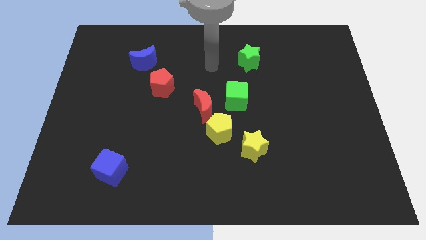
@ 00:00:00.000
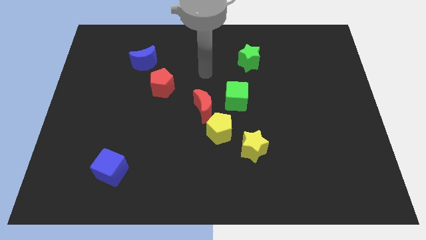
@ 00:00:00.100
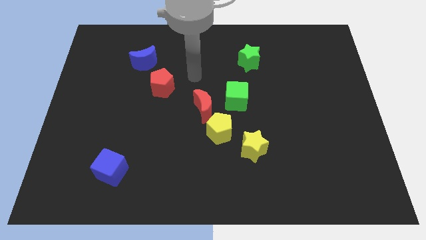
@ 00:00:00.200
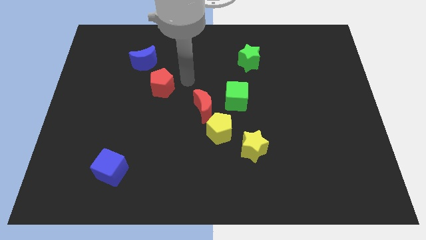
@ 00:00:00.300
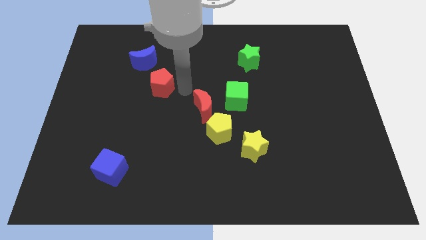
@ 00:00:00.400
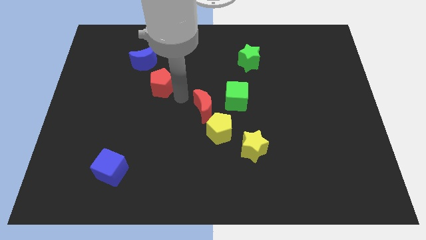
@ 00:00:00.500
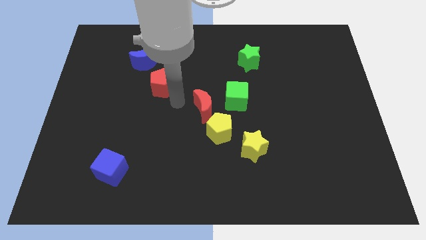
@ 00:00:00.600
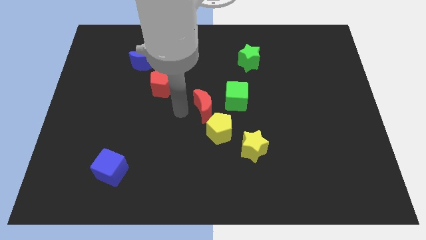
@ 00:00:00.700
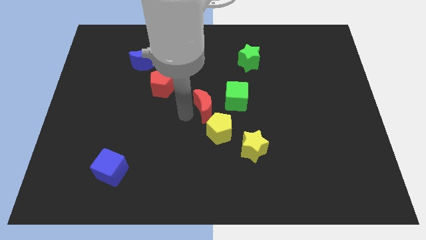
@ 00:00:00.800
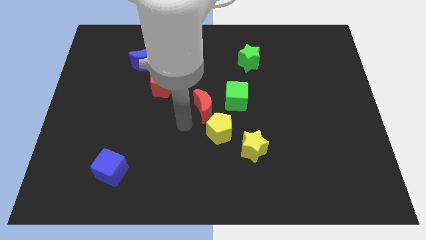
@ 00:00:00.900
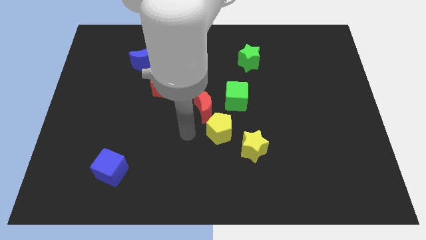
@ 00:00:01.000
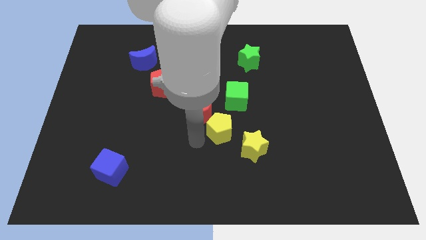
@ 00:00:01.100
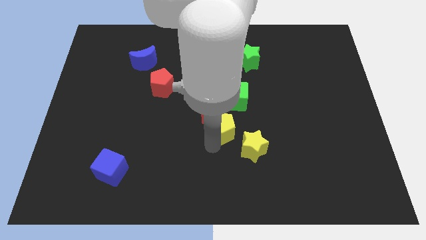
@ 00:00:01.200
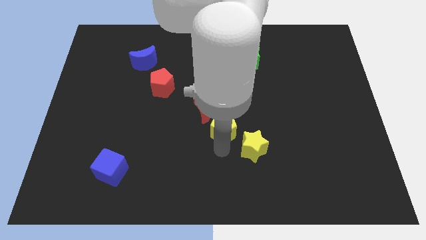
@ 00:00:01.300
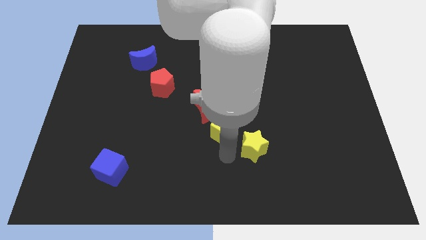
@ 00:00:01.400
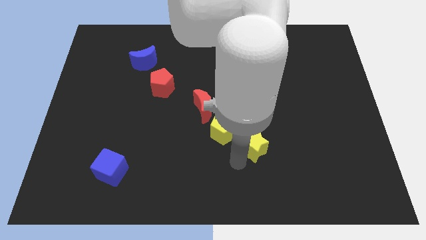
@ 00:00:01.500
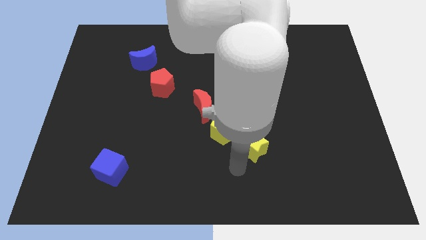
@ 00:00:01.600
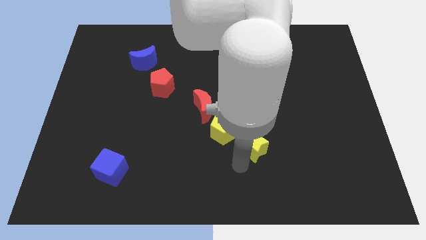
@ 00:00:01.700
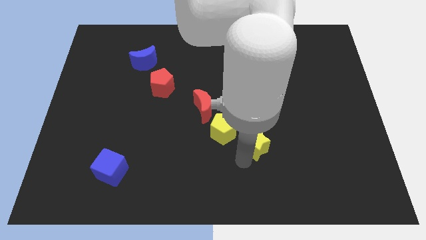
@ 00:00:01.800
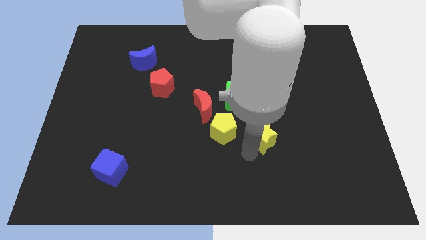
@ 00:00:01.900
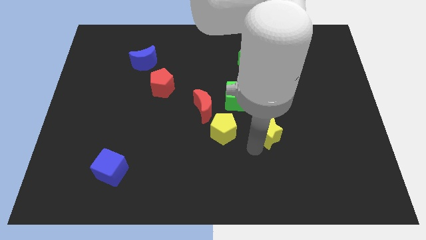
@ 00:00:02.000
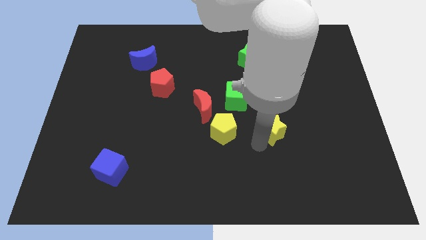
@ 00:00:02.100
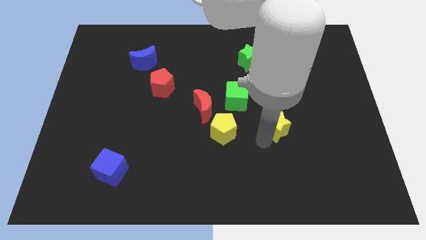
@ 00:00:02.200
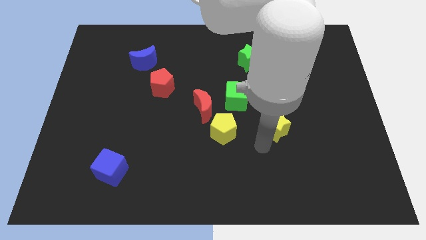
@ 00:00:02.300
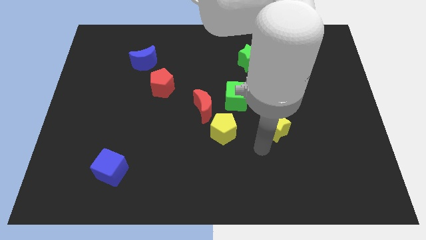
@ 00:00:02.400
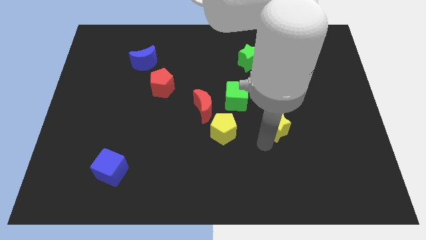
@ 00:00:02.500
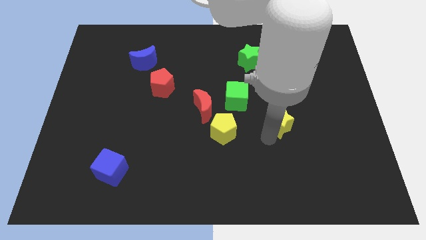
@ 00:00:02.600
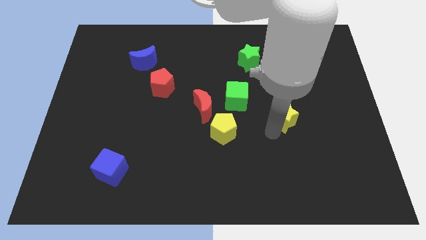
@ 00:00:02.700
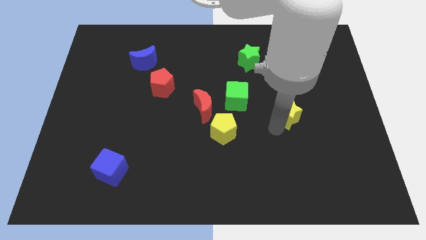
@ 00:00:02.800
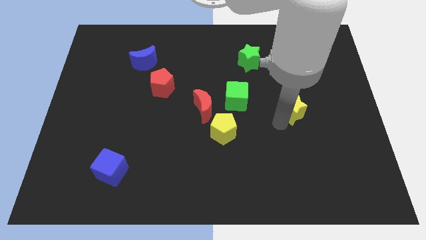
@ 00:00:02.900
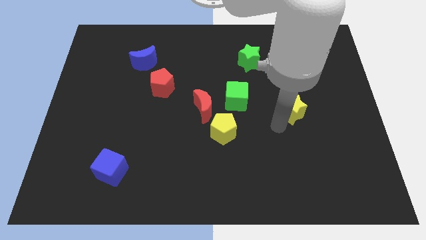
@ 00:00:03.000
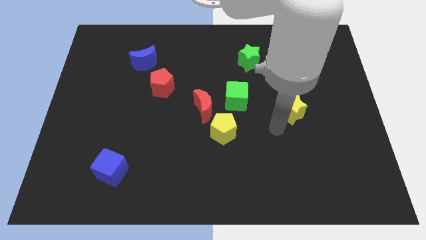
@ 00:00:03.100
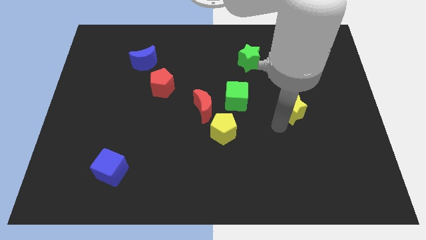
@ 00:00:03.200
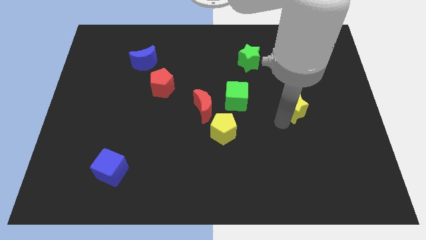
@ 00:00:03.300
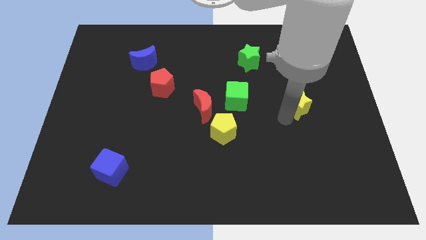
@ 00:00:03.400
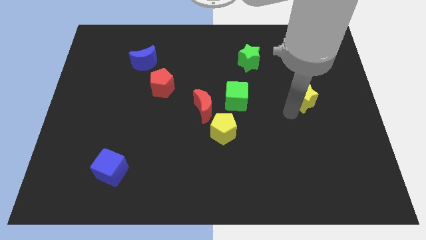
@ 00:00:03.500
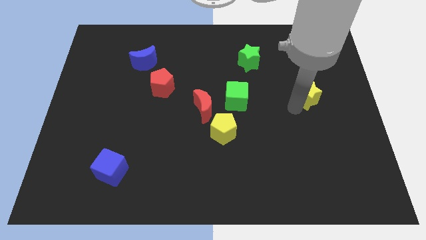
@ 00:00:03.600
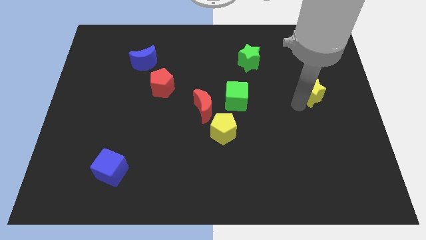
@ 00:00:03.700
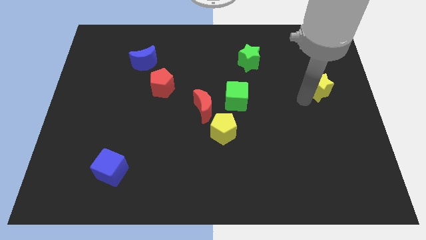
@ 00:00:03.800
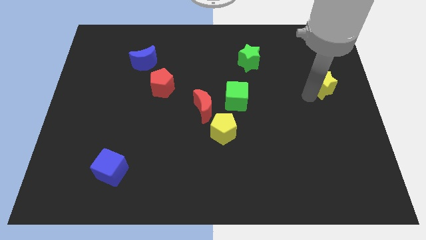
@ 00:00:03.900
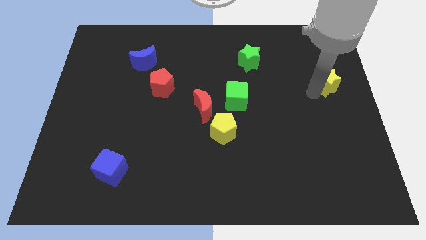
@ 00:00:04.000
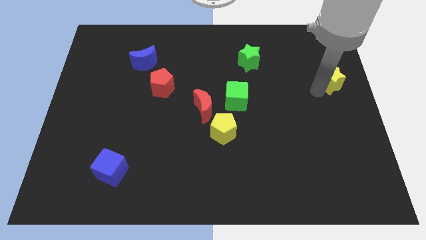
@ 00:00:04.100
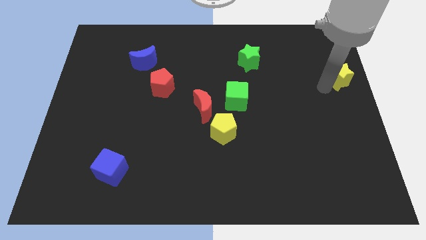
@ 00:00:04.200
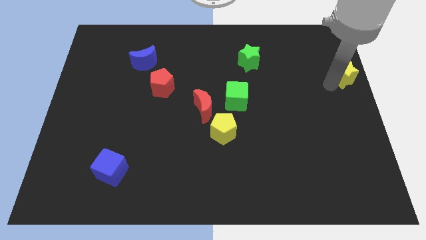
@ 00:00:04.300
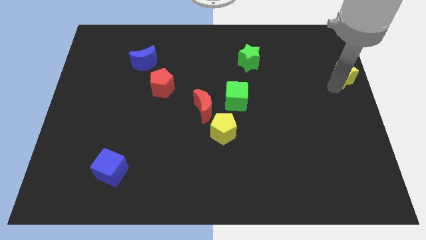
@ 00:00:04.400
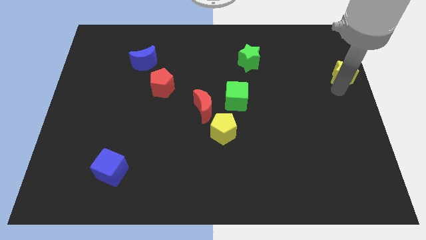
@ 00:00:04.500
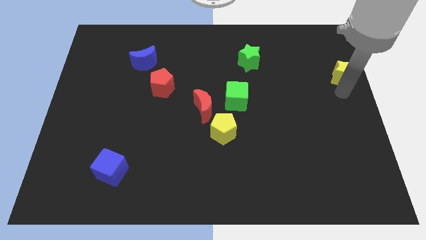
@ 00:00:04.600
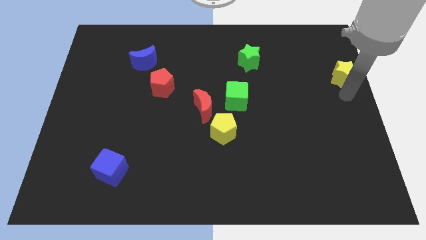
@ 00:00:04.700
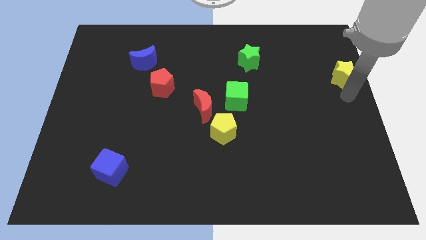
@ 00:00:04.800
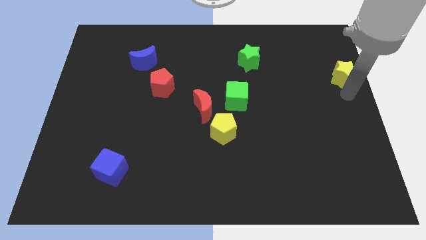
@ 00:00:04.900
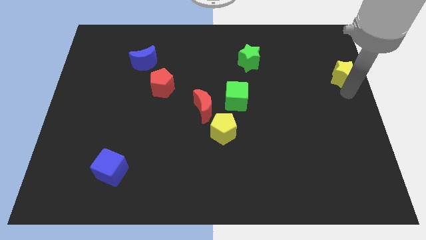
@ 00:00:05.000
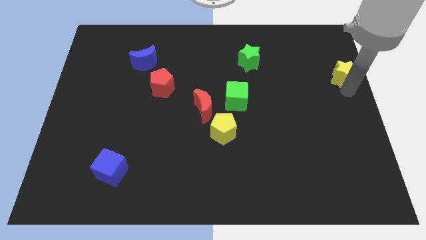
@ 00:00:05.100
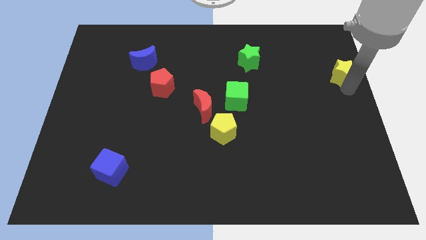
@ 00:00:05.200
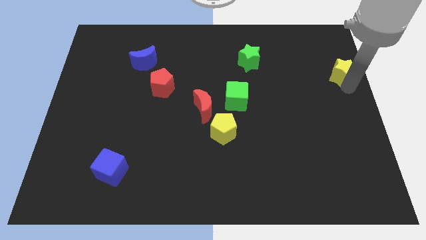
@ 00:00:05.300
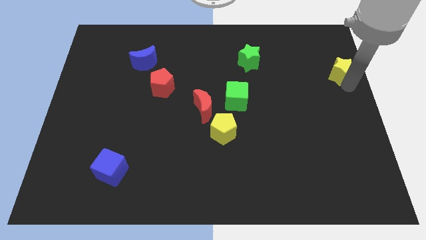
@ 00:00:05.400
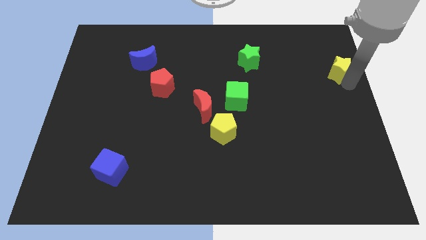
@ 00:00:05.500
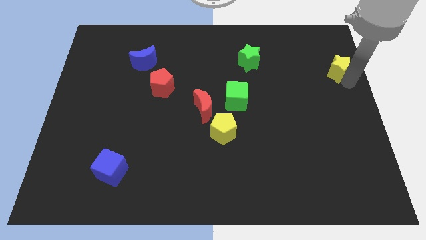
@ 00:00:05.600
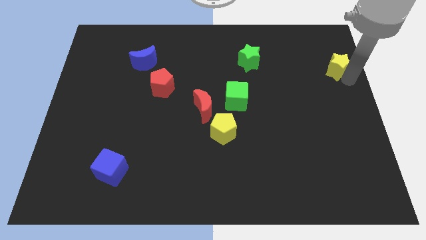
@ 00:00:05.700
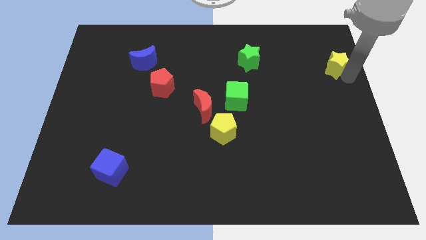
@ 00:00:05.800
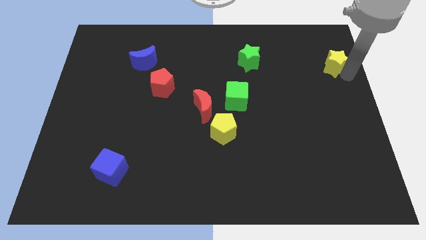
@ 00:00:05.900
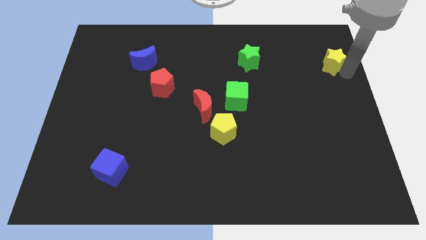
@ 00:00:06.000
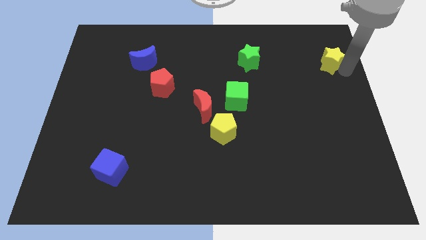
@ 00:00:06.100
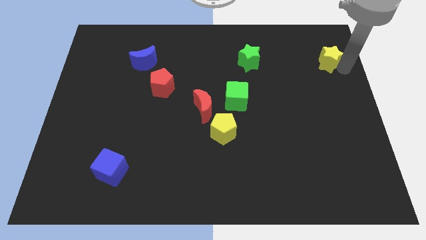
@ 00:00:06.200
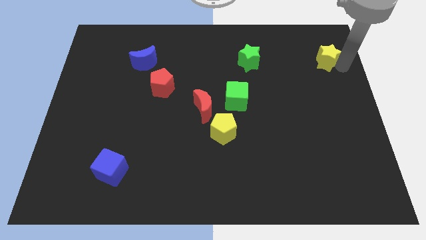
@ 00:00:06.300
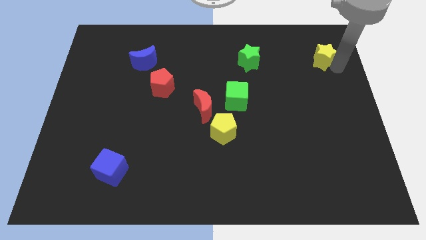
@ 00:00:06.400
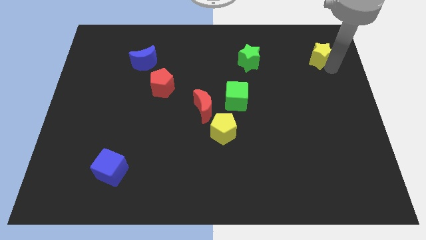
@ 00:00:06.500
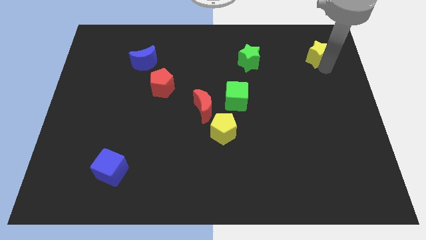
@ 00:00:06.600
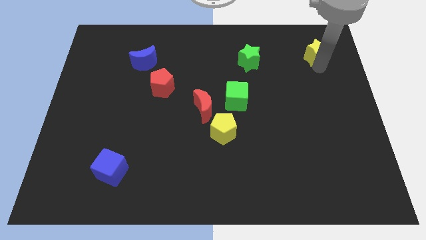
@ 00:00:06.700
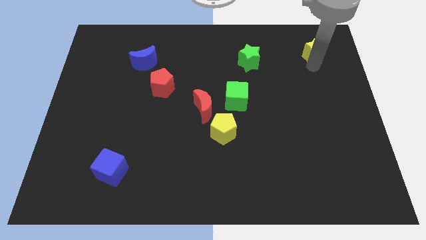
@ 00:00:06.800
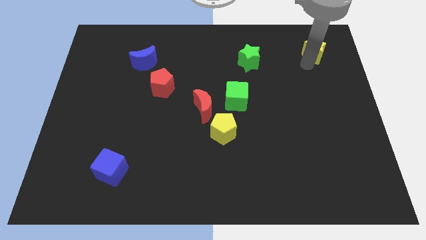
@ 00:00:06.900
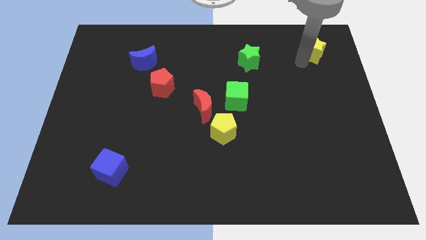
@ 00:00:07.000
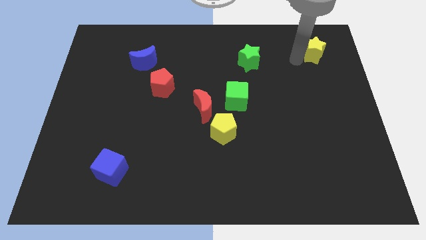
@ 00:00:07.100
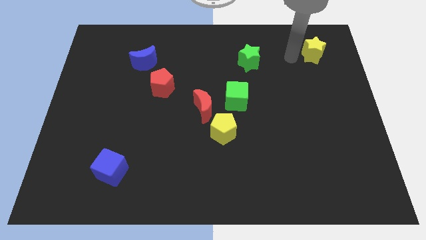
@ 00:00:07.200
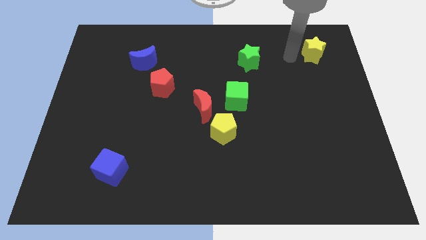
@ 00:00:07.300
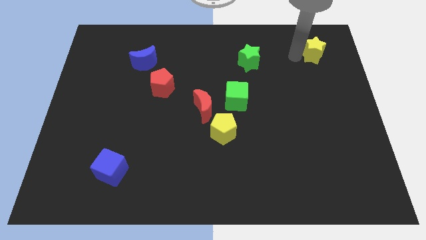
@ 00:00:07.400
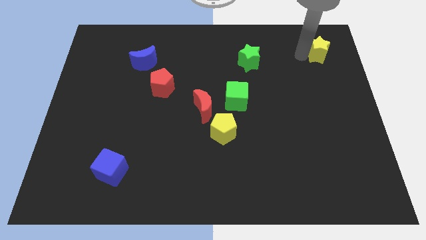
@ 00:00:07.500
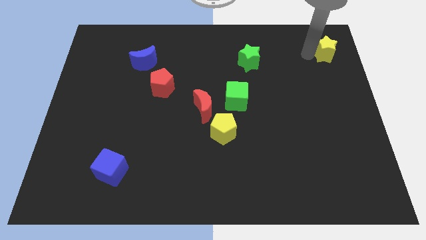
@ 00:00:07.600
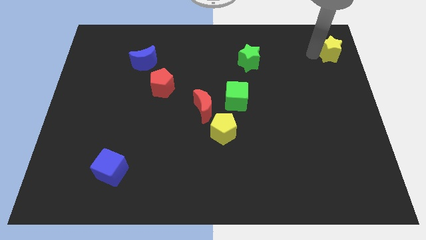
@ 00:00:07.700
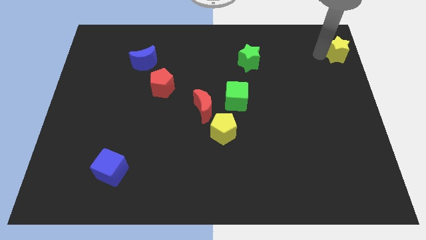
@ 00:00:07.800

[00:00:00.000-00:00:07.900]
put the yellow star to the top right corner
